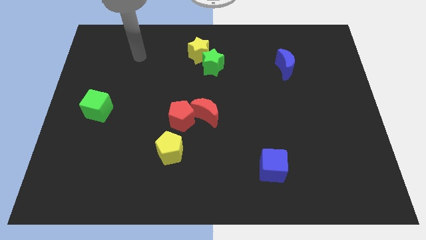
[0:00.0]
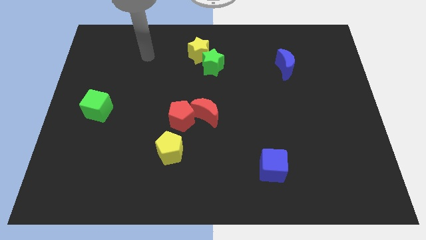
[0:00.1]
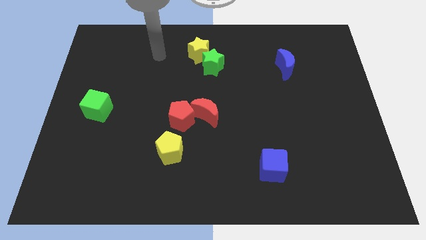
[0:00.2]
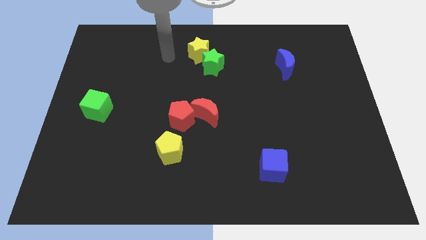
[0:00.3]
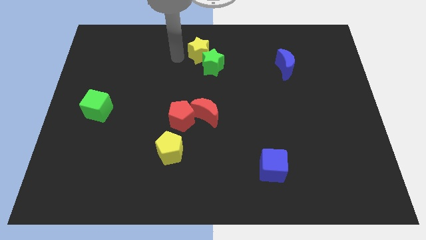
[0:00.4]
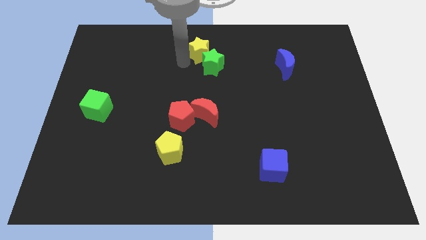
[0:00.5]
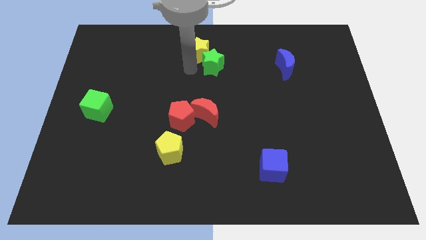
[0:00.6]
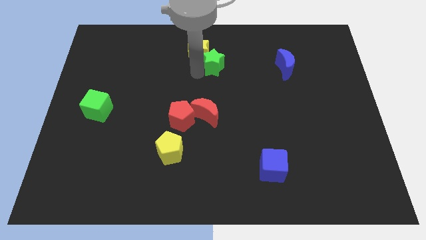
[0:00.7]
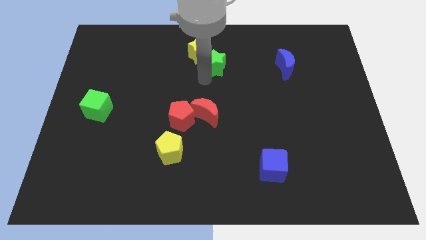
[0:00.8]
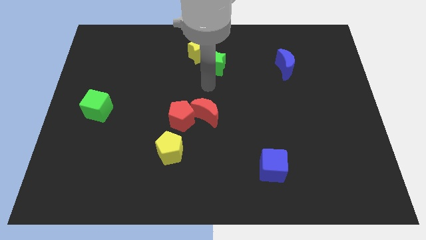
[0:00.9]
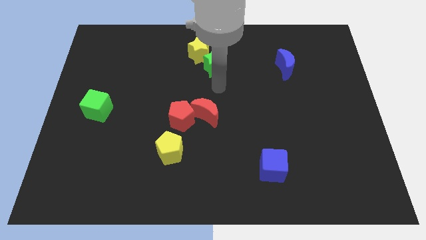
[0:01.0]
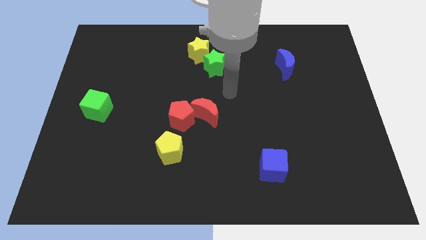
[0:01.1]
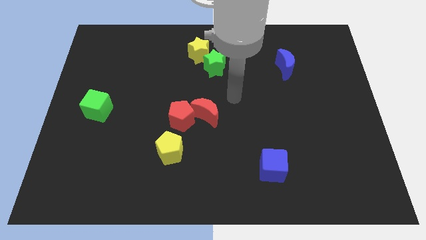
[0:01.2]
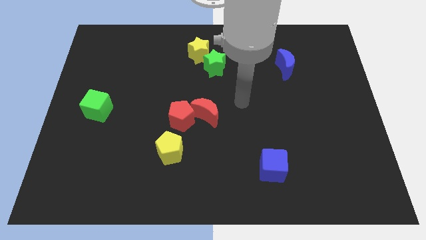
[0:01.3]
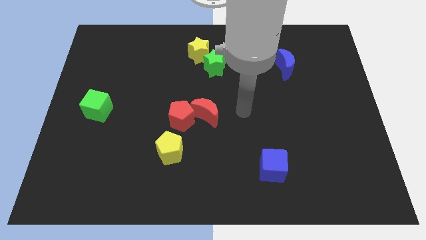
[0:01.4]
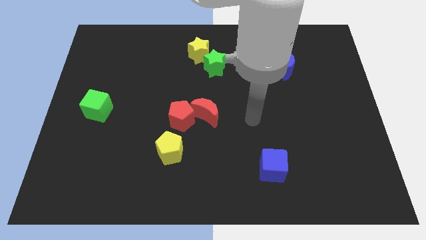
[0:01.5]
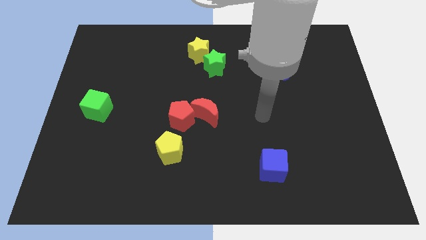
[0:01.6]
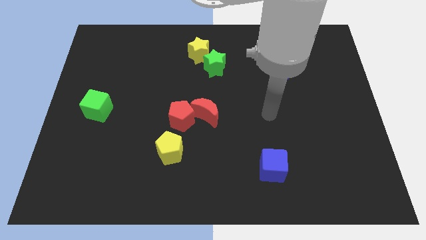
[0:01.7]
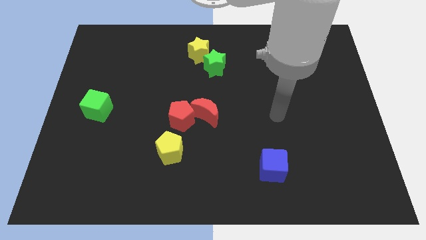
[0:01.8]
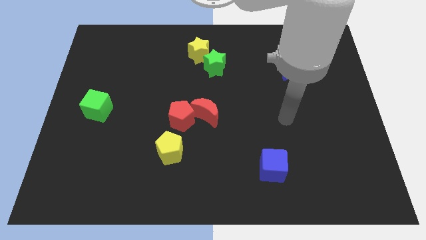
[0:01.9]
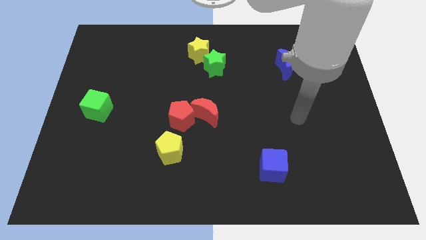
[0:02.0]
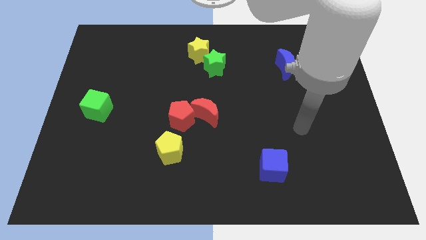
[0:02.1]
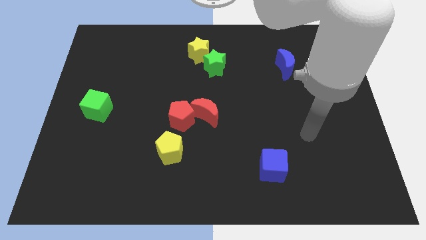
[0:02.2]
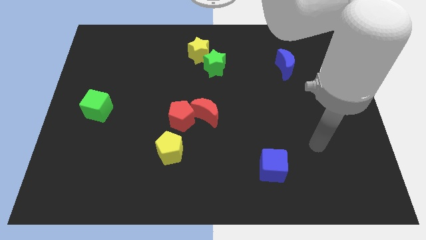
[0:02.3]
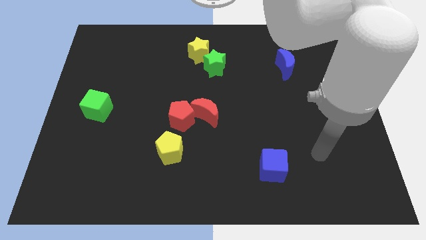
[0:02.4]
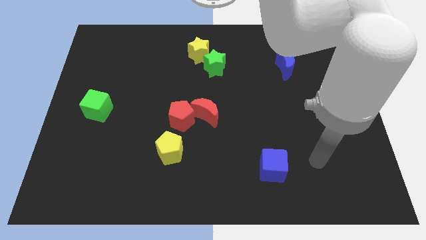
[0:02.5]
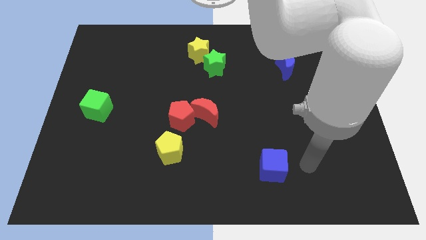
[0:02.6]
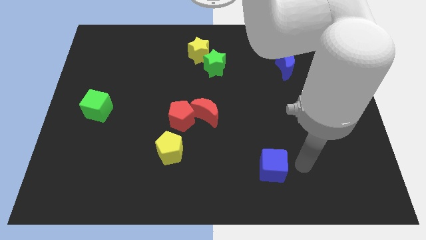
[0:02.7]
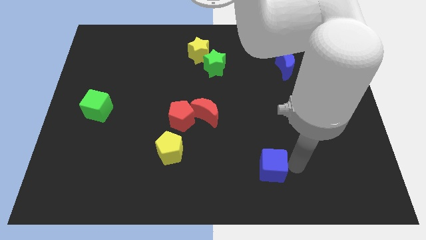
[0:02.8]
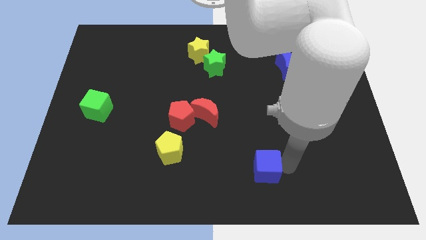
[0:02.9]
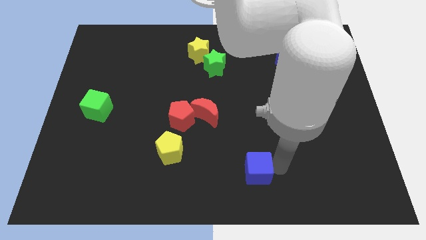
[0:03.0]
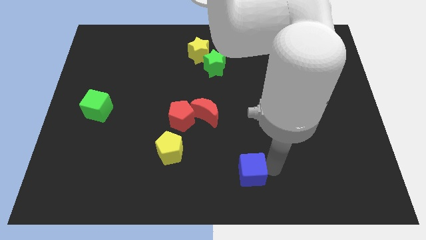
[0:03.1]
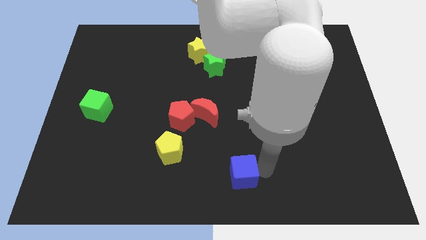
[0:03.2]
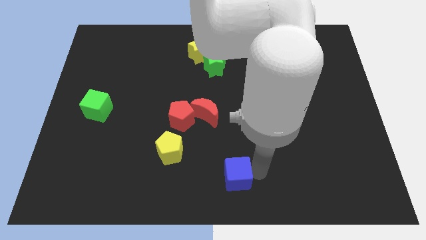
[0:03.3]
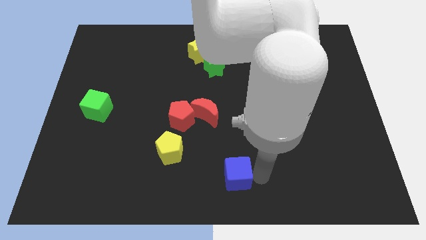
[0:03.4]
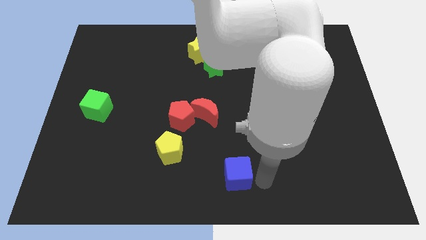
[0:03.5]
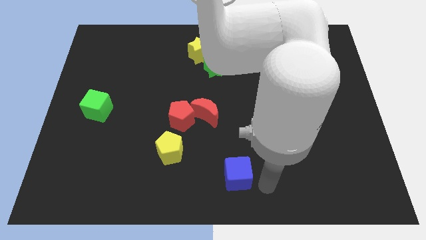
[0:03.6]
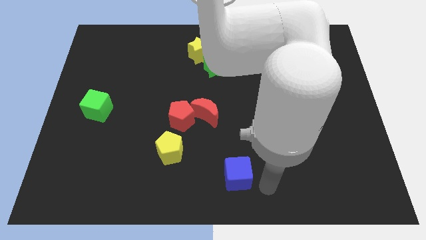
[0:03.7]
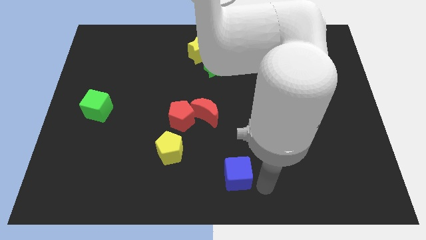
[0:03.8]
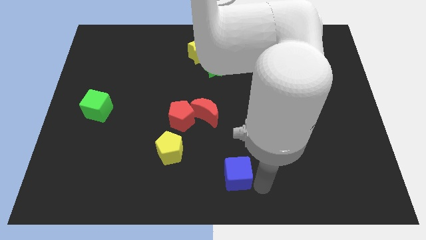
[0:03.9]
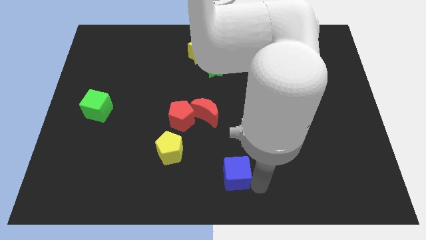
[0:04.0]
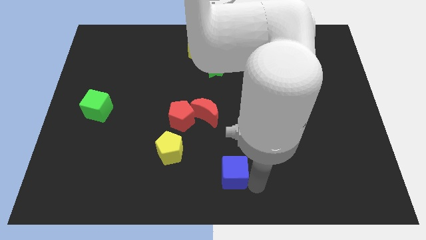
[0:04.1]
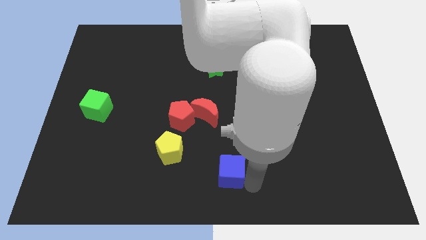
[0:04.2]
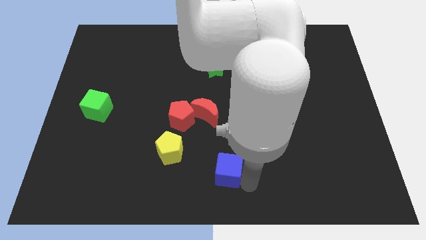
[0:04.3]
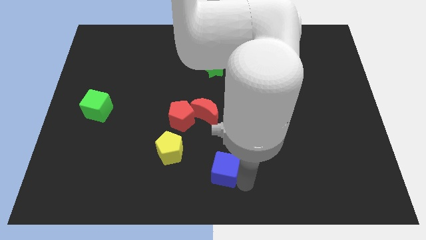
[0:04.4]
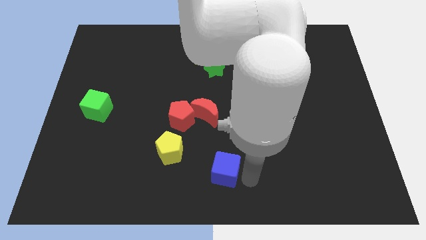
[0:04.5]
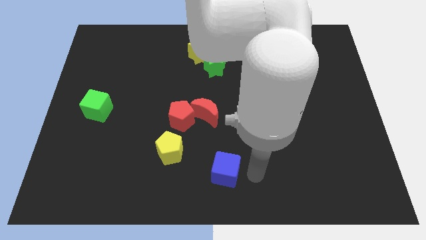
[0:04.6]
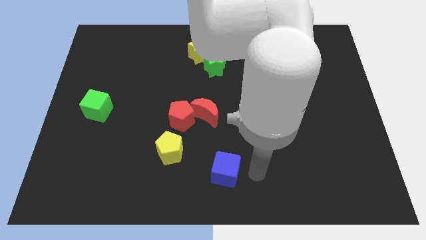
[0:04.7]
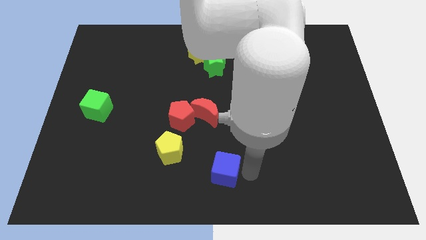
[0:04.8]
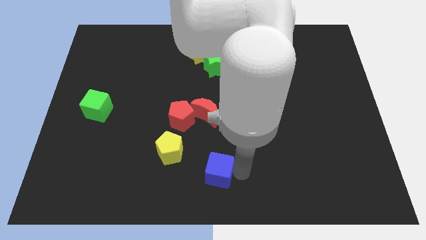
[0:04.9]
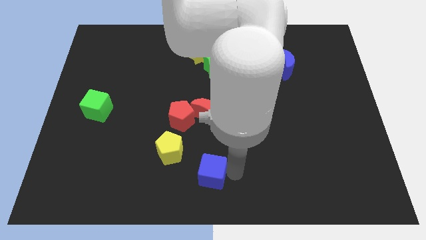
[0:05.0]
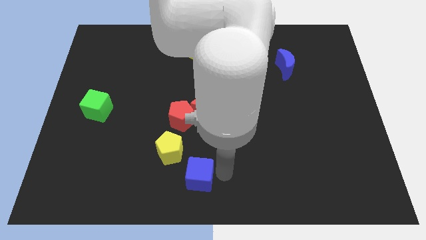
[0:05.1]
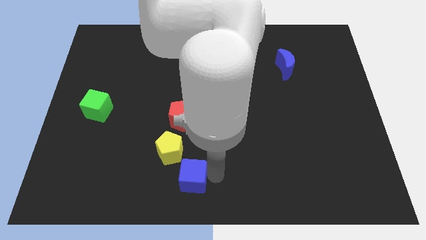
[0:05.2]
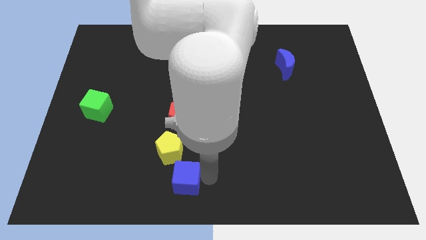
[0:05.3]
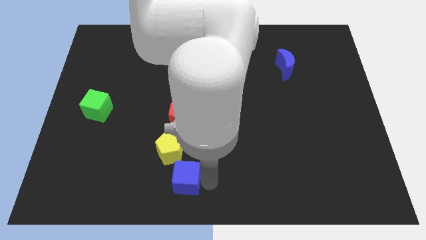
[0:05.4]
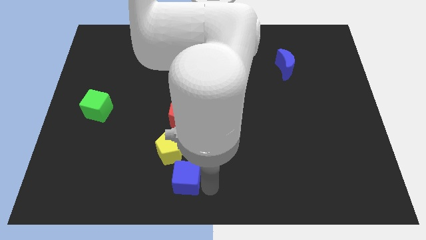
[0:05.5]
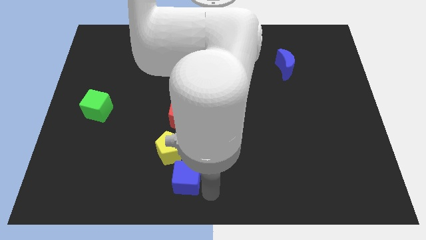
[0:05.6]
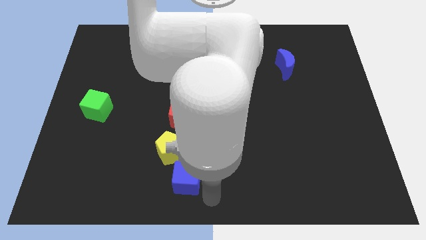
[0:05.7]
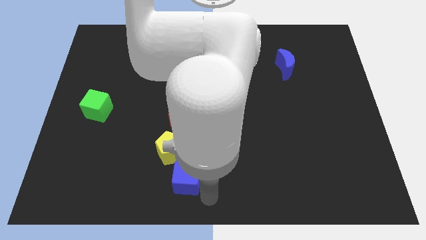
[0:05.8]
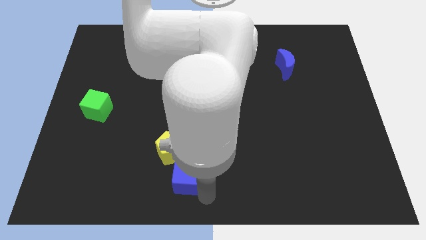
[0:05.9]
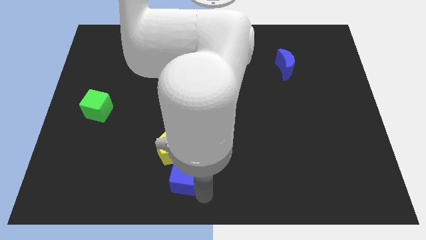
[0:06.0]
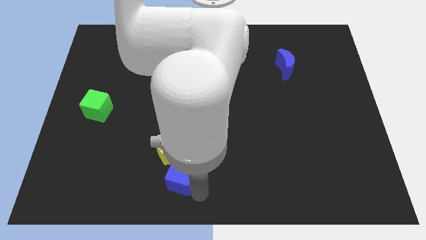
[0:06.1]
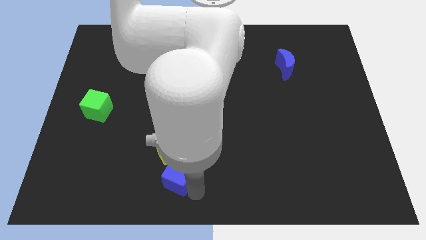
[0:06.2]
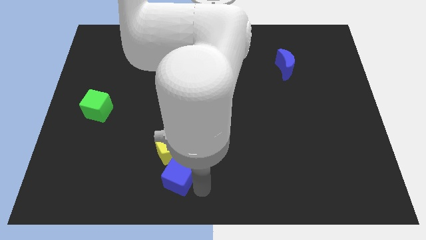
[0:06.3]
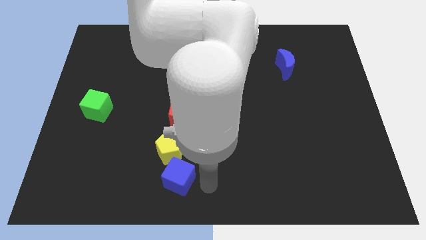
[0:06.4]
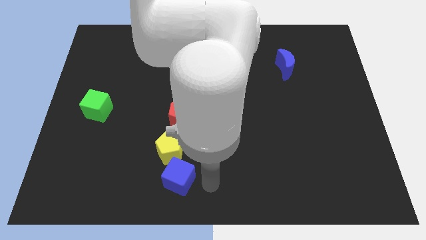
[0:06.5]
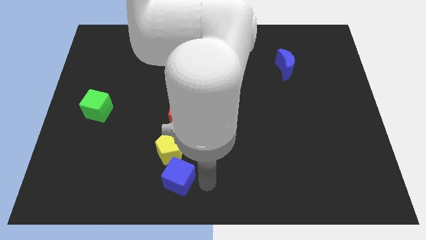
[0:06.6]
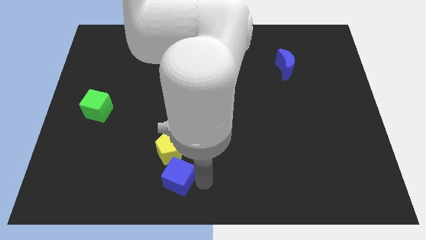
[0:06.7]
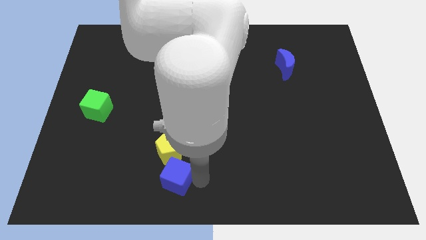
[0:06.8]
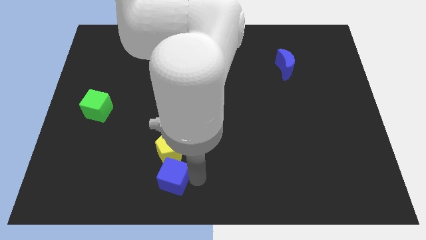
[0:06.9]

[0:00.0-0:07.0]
slide the blue cube left

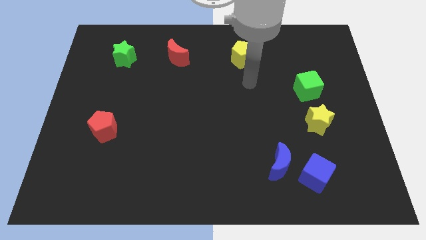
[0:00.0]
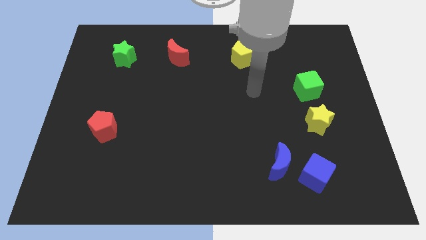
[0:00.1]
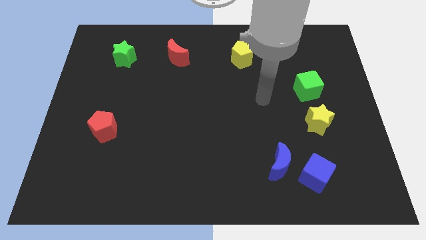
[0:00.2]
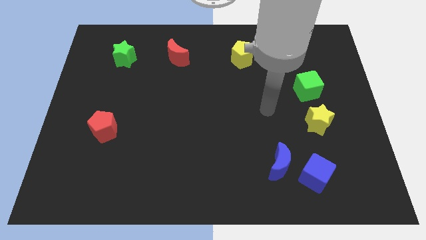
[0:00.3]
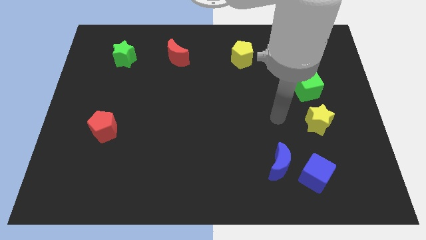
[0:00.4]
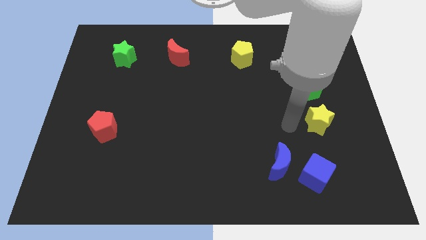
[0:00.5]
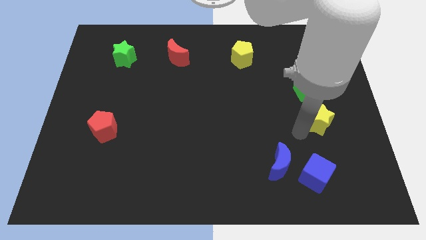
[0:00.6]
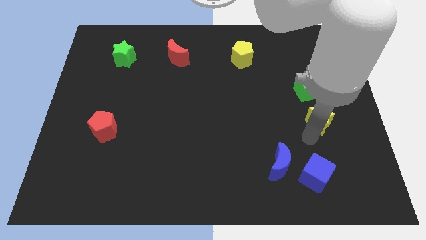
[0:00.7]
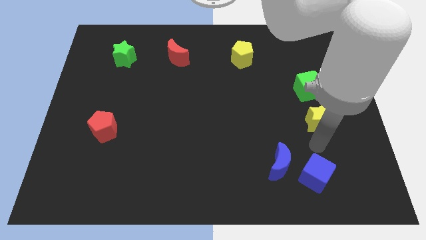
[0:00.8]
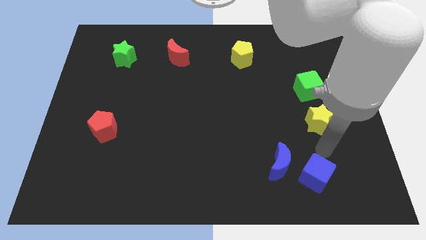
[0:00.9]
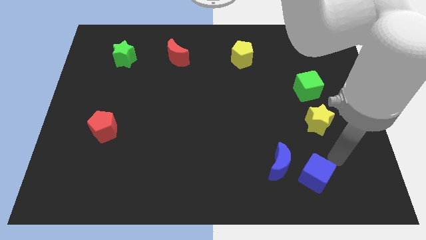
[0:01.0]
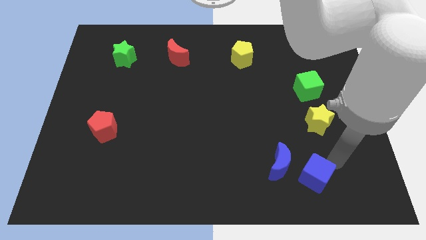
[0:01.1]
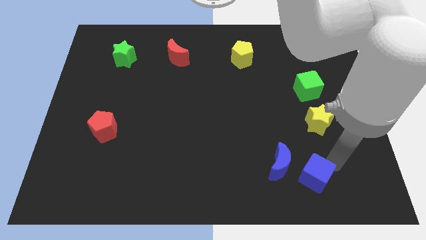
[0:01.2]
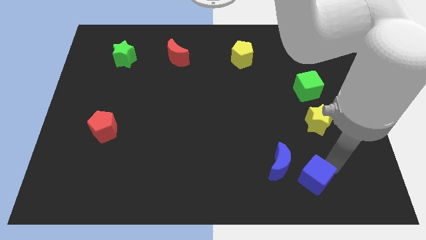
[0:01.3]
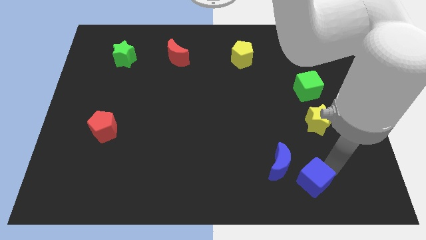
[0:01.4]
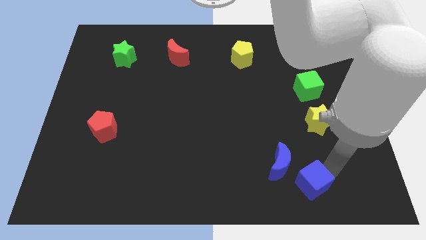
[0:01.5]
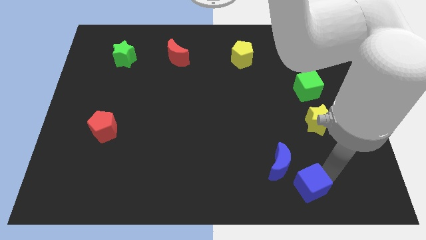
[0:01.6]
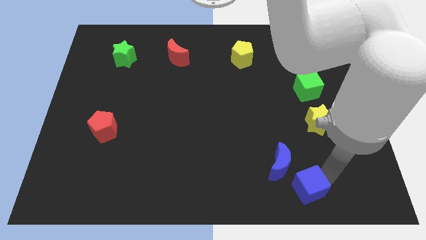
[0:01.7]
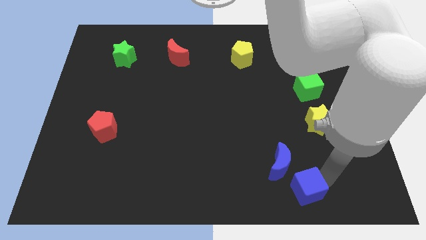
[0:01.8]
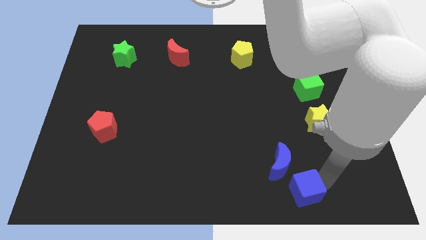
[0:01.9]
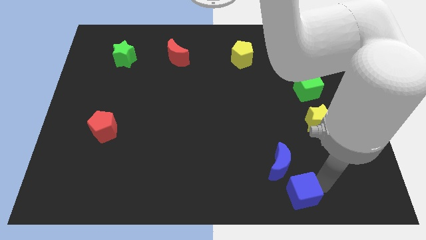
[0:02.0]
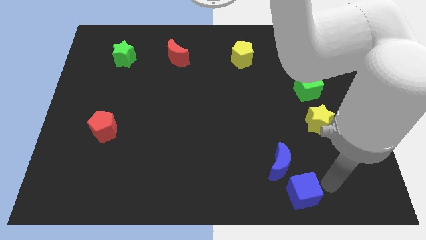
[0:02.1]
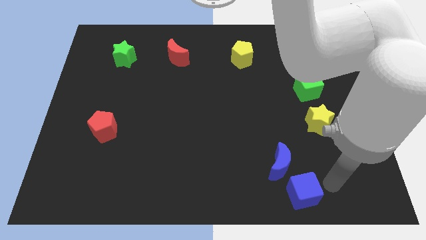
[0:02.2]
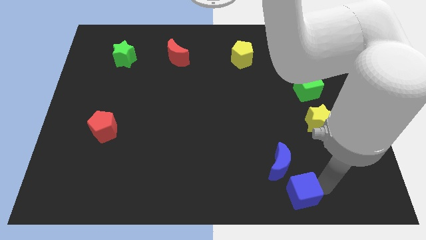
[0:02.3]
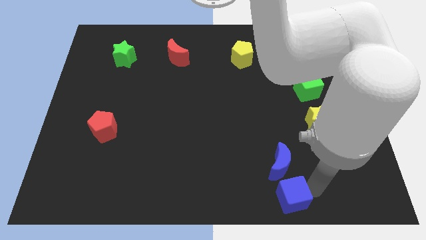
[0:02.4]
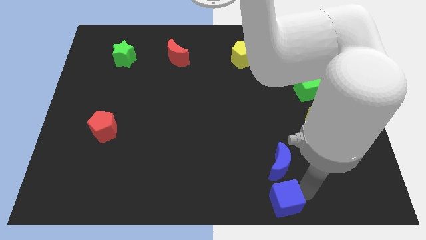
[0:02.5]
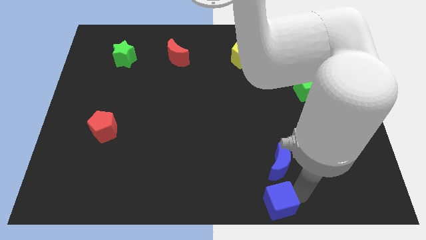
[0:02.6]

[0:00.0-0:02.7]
slide the blue cube to the left a little bit
